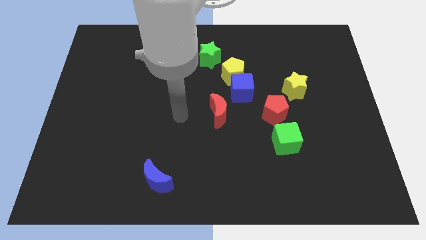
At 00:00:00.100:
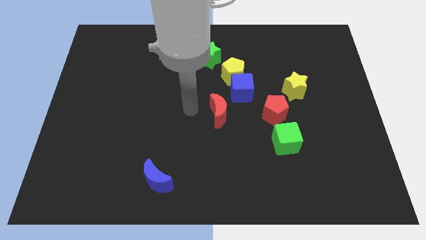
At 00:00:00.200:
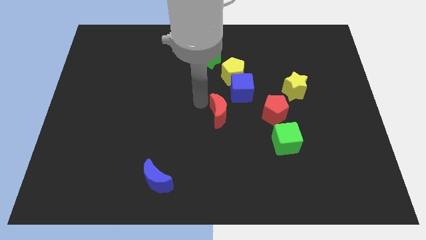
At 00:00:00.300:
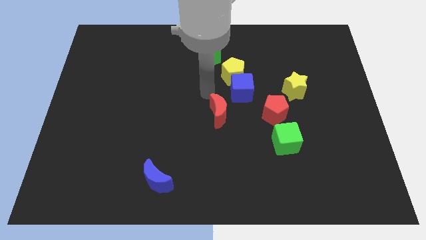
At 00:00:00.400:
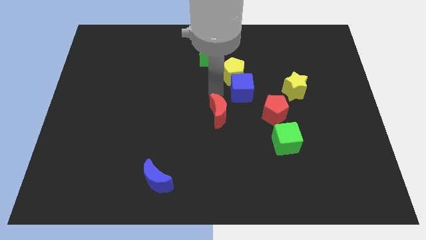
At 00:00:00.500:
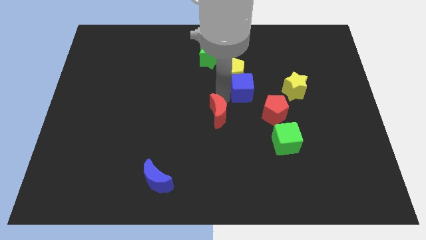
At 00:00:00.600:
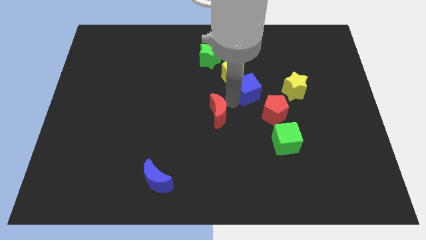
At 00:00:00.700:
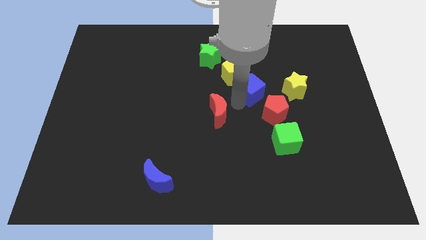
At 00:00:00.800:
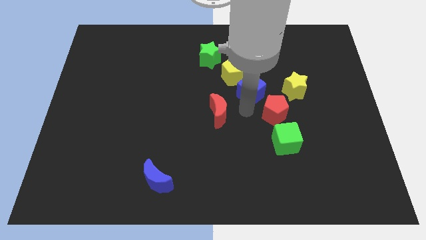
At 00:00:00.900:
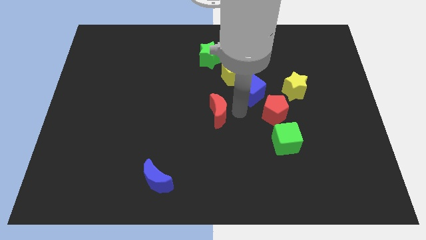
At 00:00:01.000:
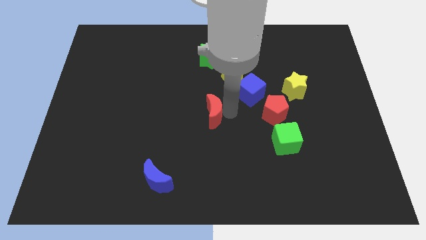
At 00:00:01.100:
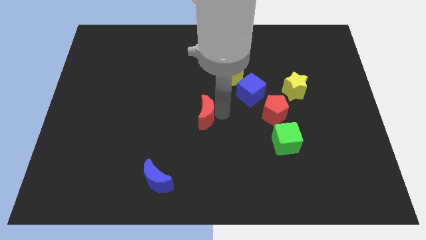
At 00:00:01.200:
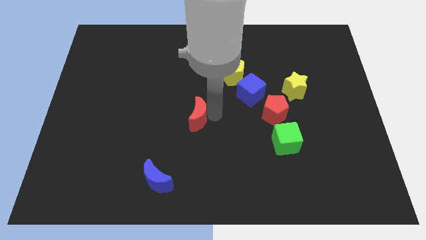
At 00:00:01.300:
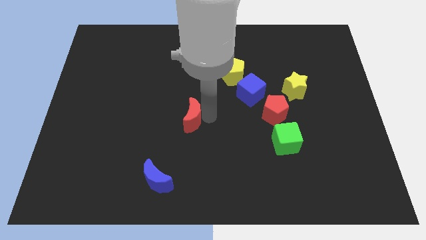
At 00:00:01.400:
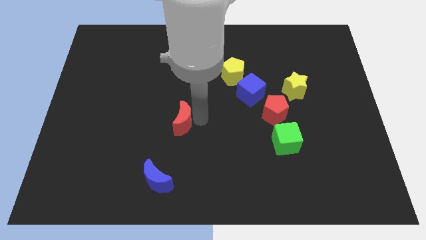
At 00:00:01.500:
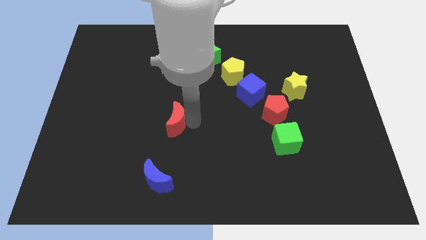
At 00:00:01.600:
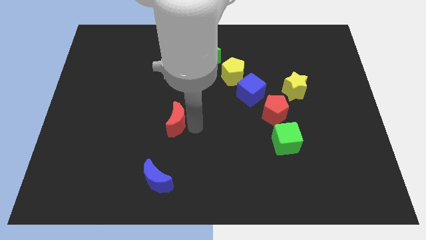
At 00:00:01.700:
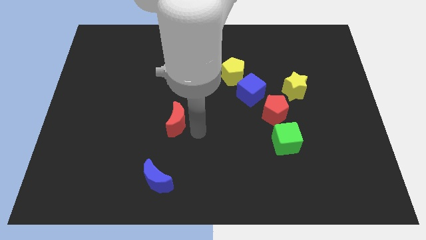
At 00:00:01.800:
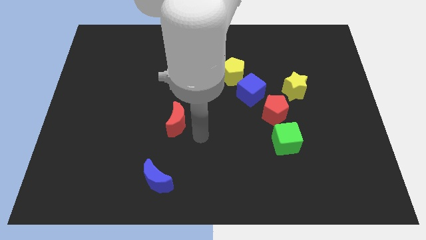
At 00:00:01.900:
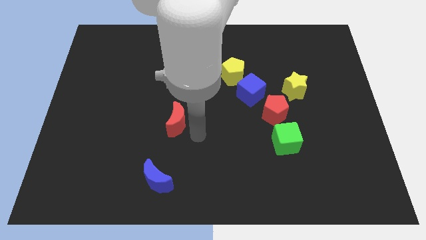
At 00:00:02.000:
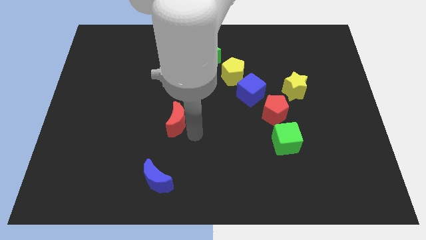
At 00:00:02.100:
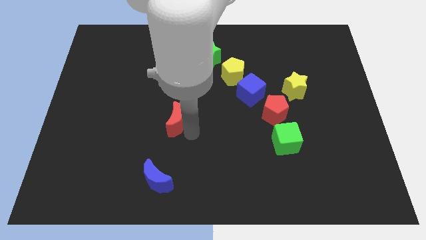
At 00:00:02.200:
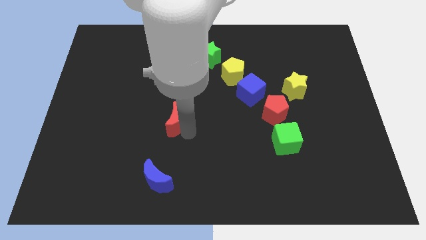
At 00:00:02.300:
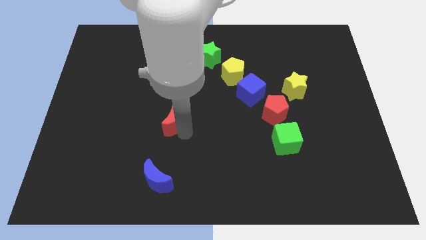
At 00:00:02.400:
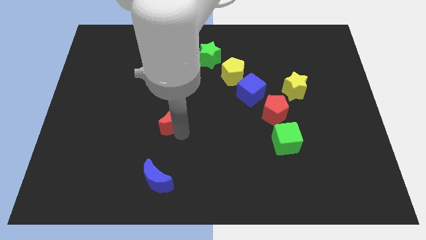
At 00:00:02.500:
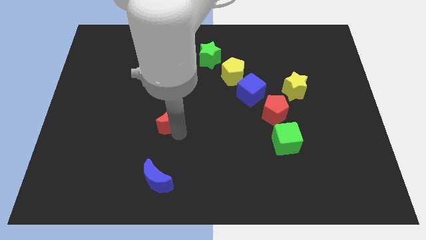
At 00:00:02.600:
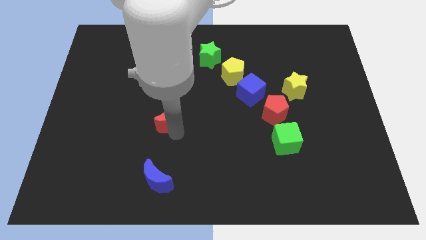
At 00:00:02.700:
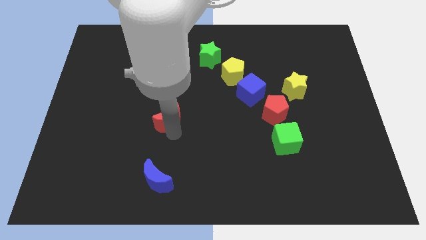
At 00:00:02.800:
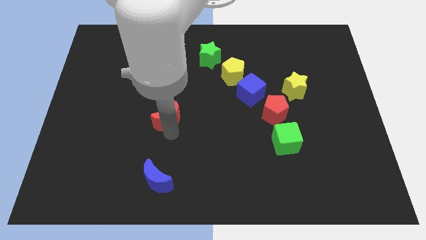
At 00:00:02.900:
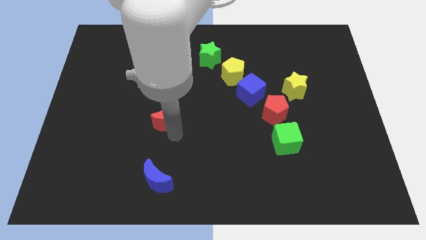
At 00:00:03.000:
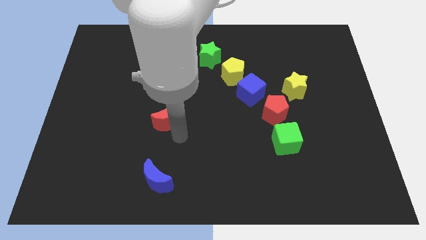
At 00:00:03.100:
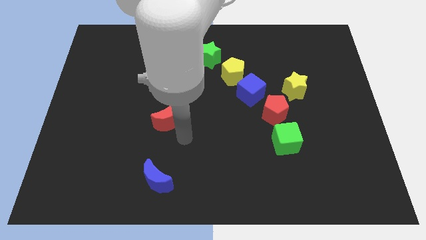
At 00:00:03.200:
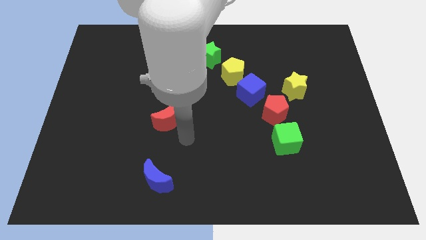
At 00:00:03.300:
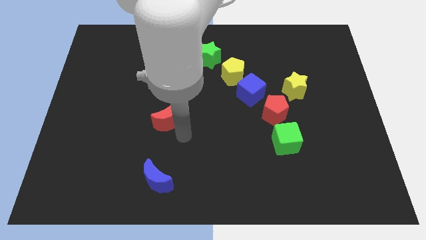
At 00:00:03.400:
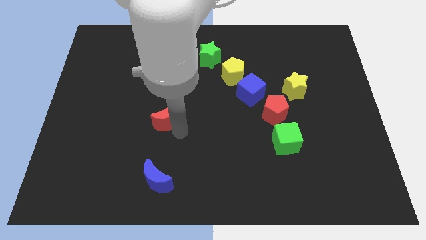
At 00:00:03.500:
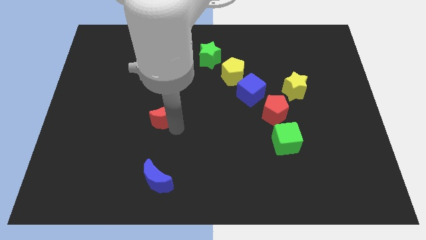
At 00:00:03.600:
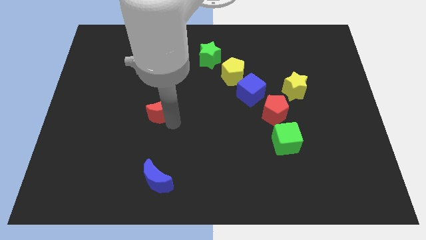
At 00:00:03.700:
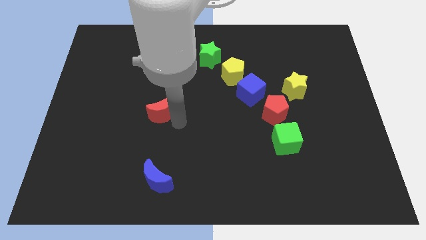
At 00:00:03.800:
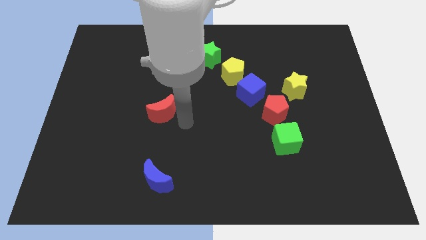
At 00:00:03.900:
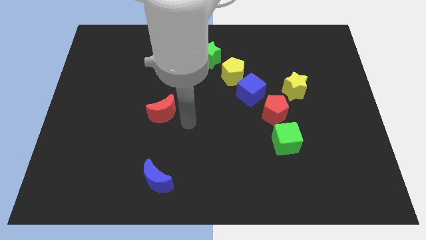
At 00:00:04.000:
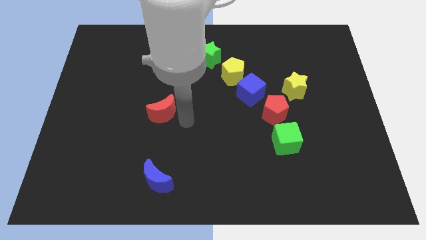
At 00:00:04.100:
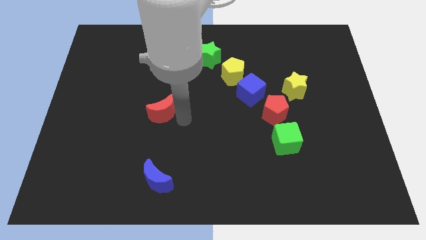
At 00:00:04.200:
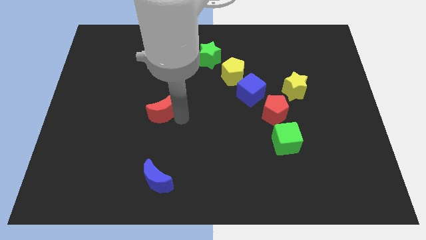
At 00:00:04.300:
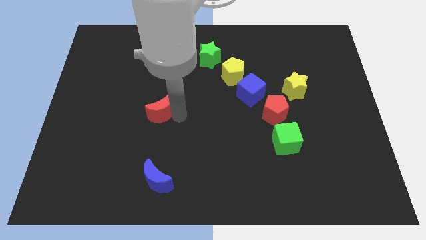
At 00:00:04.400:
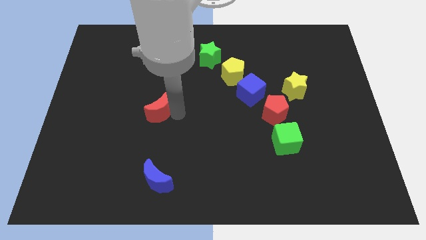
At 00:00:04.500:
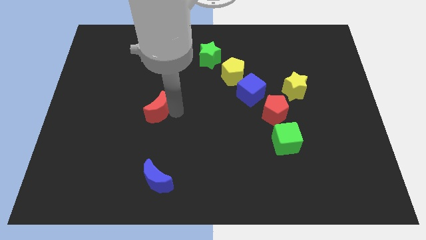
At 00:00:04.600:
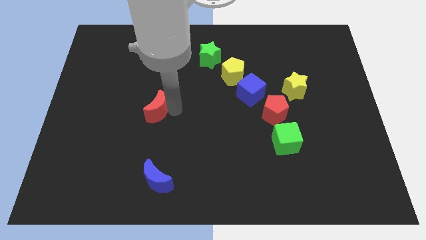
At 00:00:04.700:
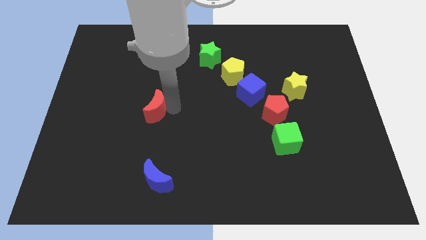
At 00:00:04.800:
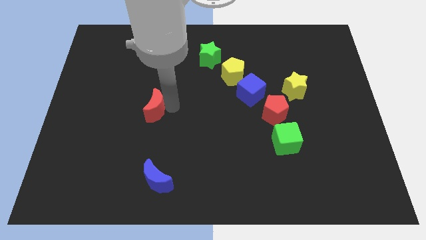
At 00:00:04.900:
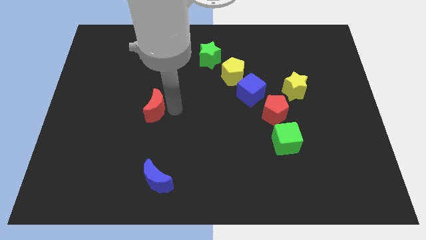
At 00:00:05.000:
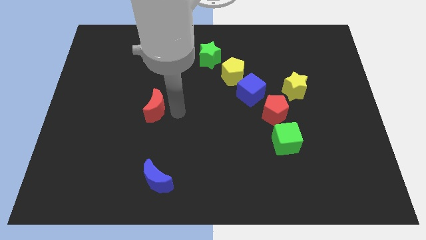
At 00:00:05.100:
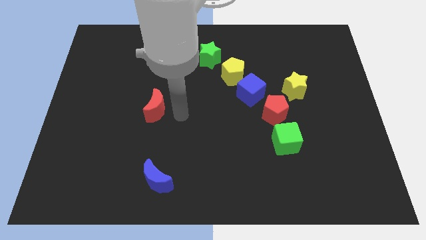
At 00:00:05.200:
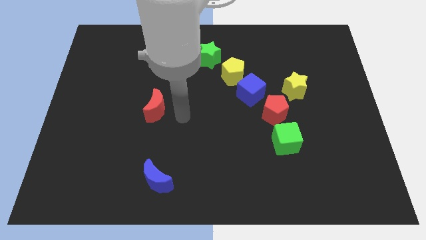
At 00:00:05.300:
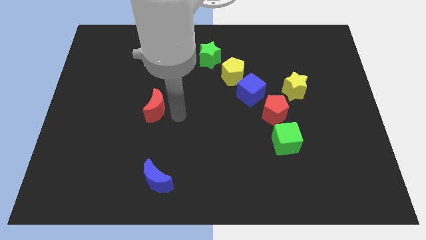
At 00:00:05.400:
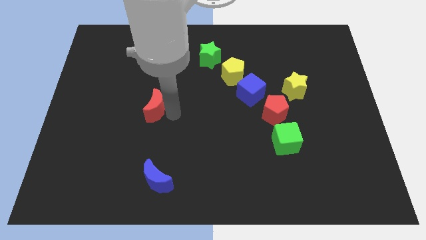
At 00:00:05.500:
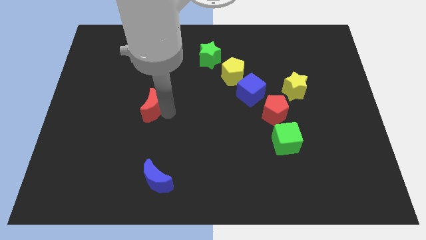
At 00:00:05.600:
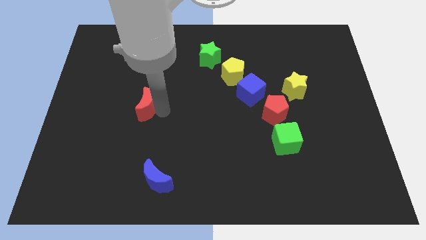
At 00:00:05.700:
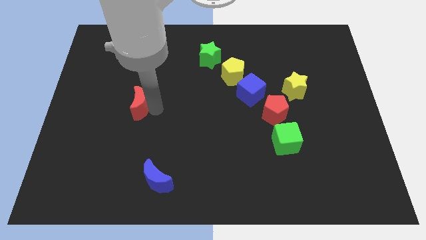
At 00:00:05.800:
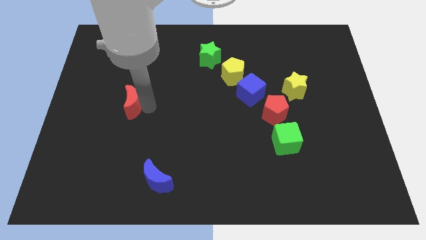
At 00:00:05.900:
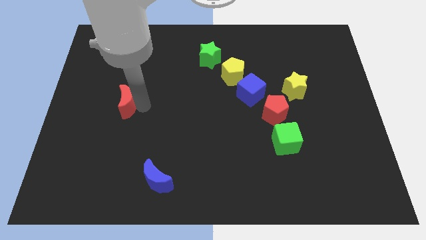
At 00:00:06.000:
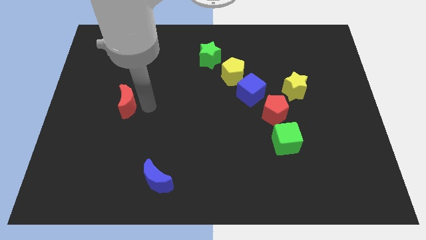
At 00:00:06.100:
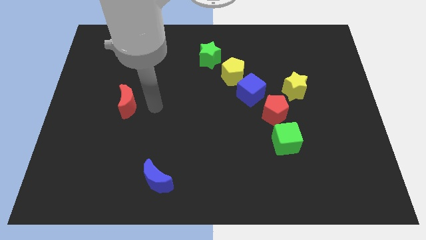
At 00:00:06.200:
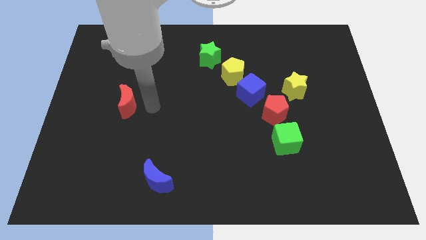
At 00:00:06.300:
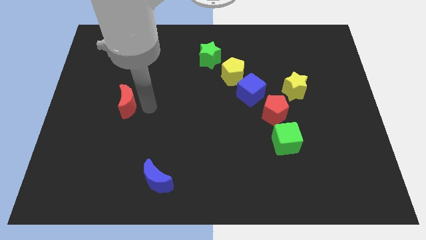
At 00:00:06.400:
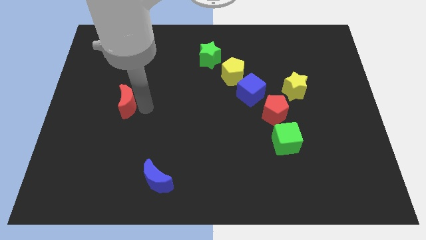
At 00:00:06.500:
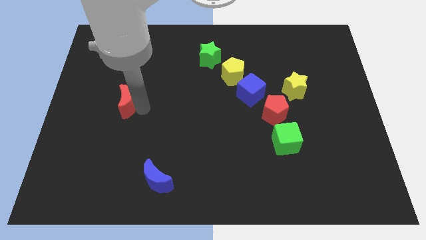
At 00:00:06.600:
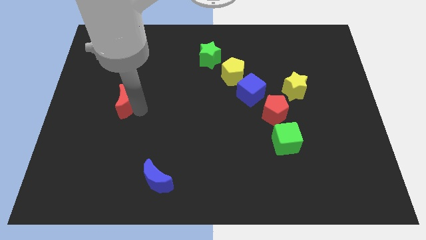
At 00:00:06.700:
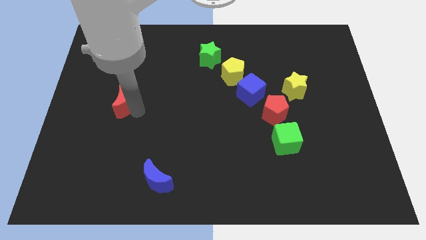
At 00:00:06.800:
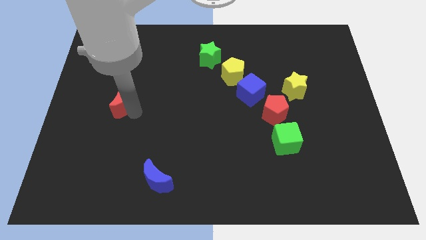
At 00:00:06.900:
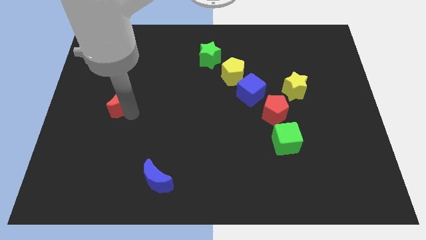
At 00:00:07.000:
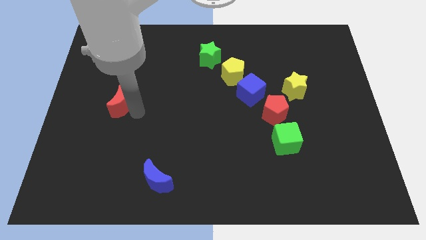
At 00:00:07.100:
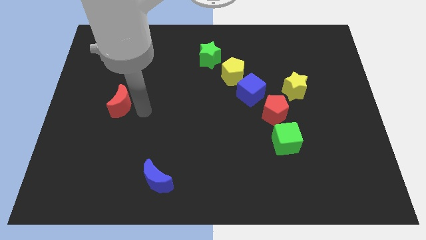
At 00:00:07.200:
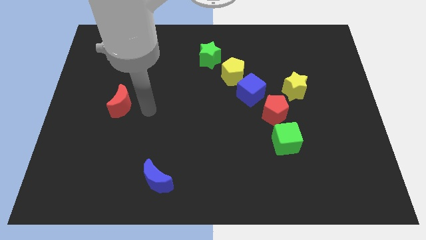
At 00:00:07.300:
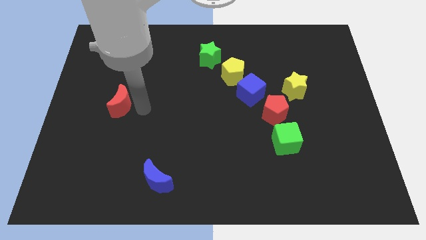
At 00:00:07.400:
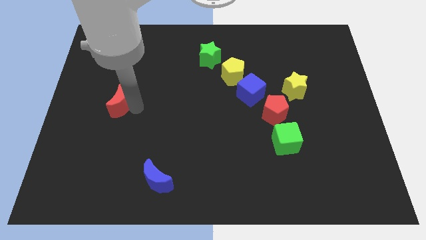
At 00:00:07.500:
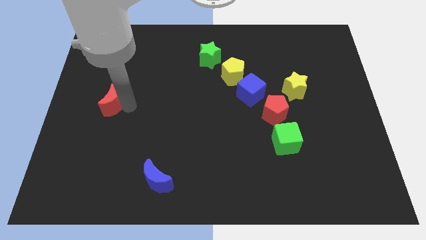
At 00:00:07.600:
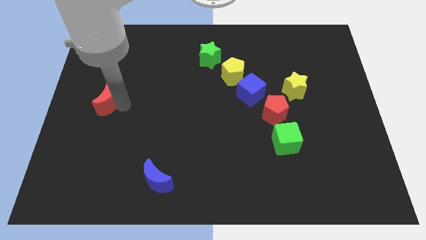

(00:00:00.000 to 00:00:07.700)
put the red moon to the left side of the board
